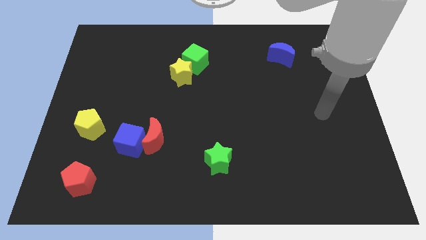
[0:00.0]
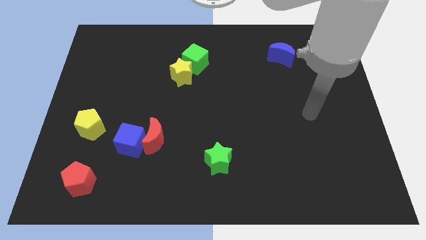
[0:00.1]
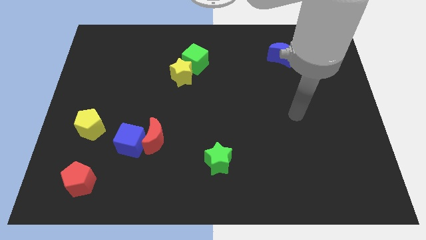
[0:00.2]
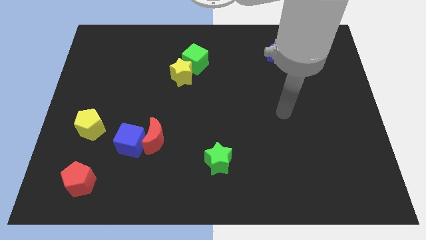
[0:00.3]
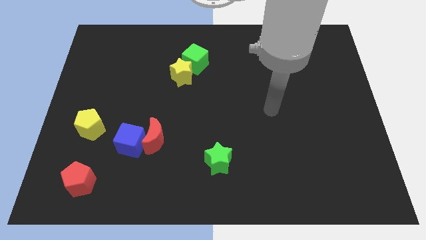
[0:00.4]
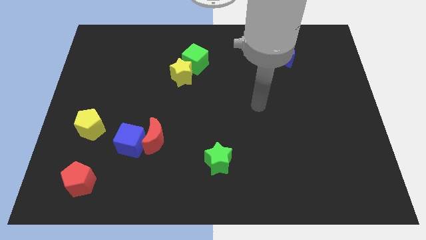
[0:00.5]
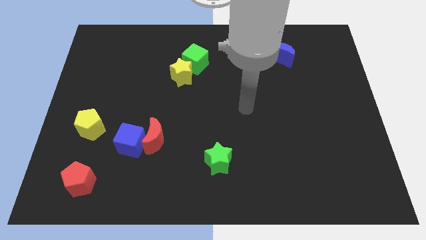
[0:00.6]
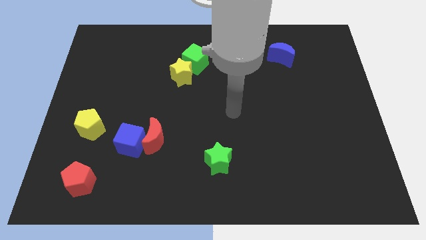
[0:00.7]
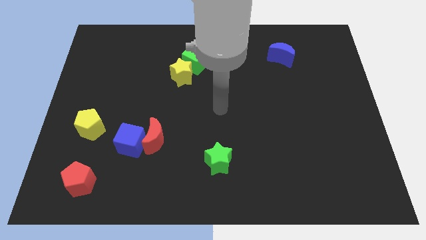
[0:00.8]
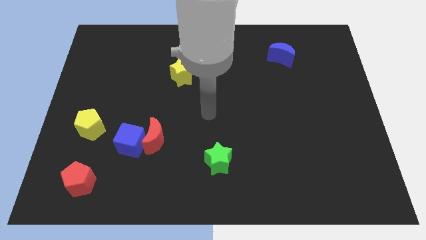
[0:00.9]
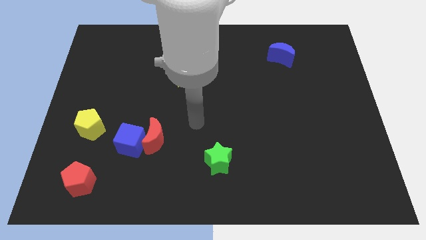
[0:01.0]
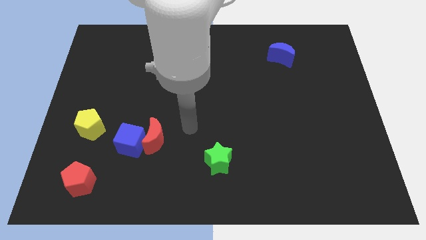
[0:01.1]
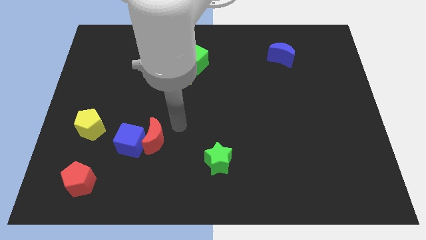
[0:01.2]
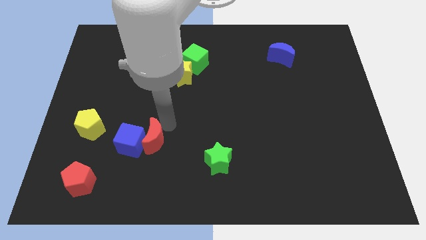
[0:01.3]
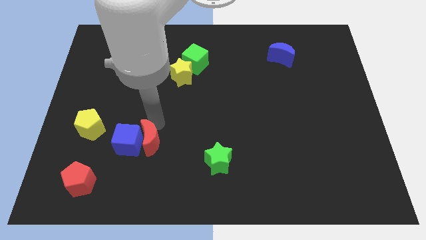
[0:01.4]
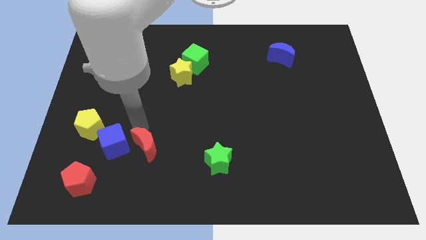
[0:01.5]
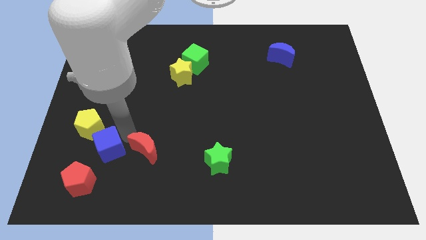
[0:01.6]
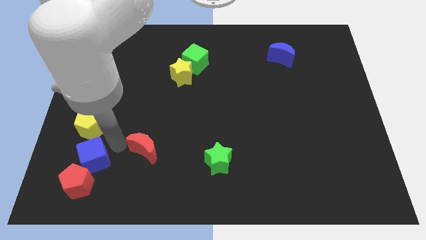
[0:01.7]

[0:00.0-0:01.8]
move the red moon away from the blue cube

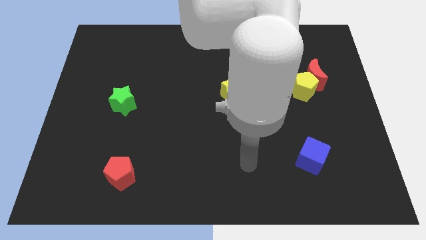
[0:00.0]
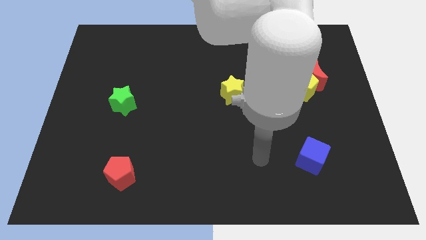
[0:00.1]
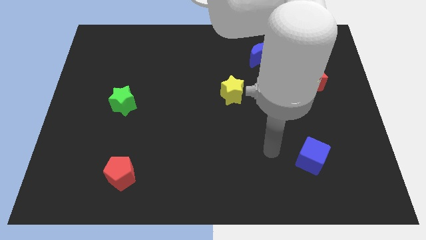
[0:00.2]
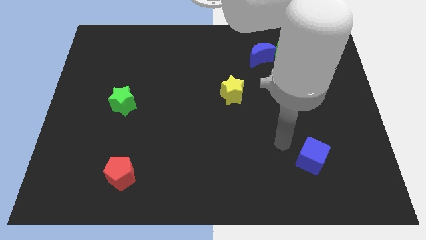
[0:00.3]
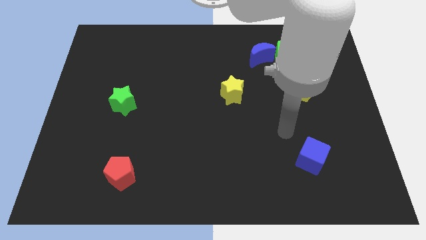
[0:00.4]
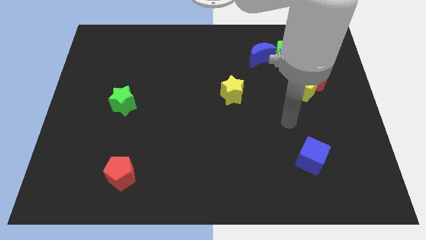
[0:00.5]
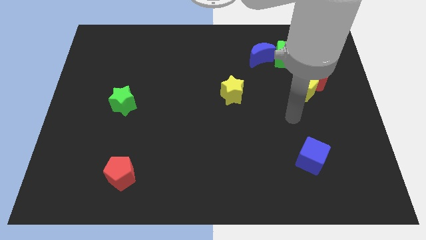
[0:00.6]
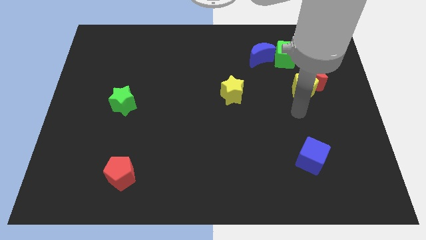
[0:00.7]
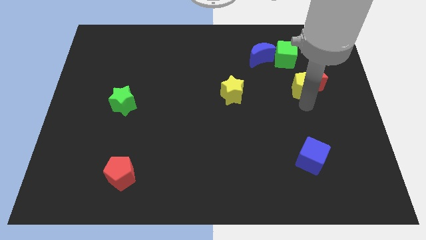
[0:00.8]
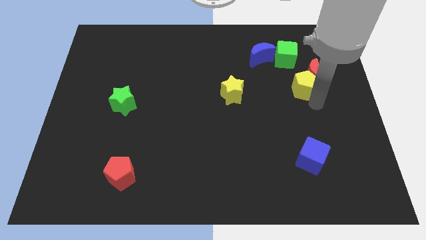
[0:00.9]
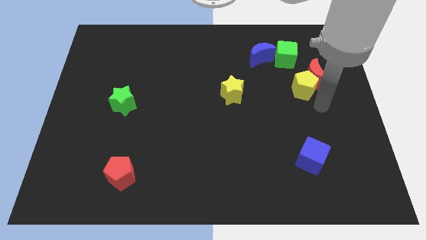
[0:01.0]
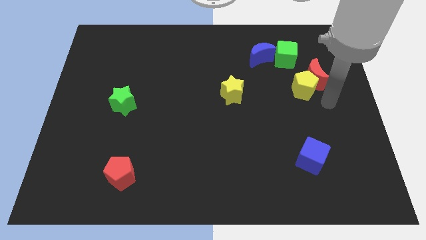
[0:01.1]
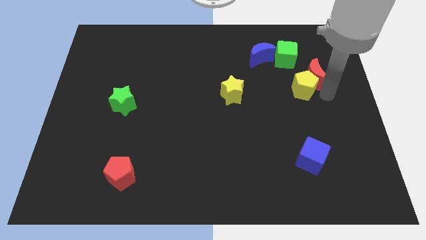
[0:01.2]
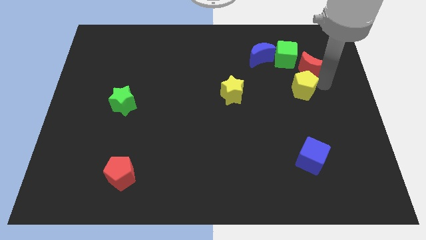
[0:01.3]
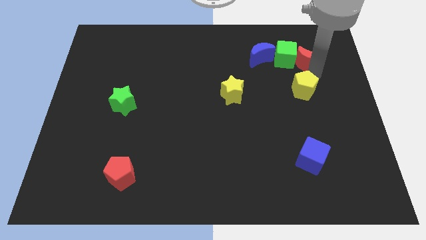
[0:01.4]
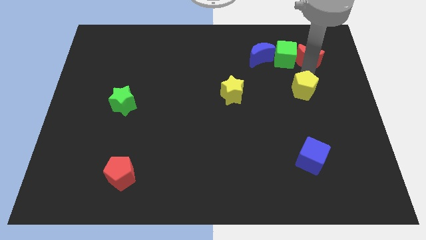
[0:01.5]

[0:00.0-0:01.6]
separate the yellow pentagon from the red moon

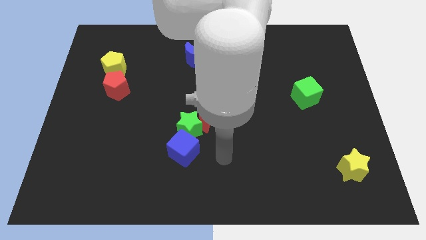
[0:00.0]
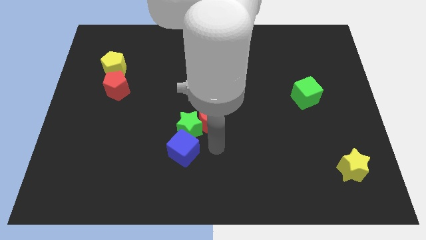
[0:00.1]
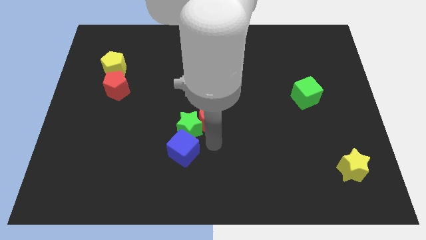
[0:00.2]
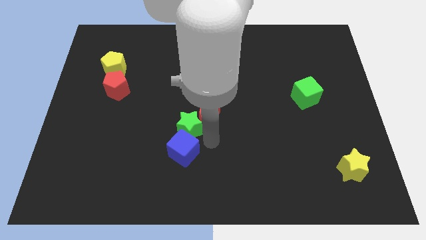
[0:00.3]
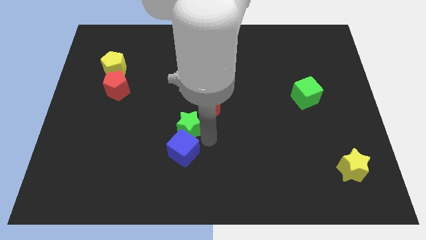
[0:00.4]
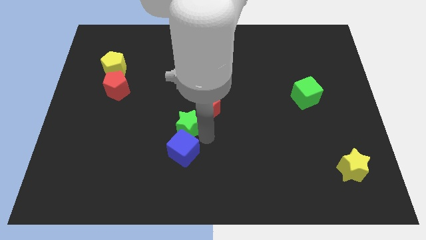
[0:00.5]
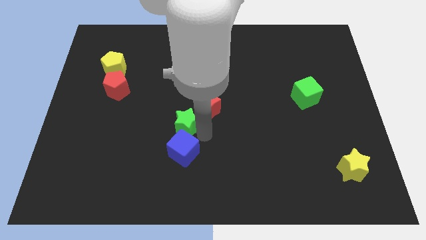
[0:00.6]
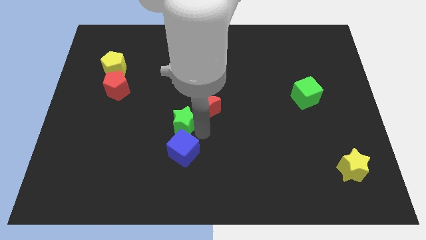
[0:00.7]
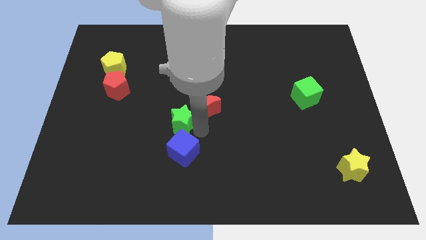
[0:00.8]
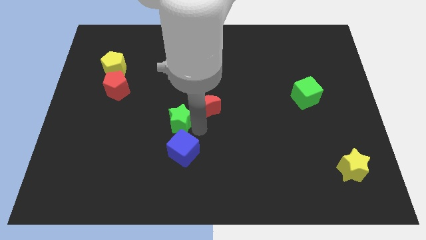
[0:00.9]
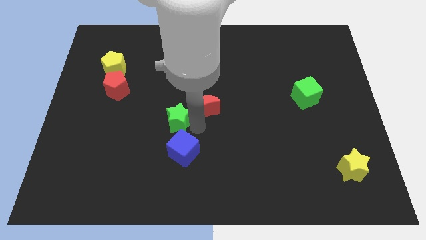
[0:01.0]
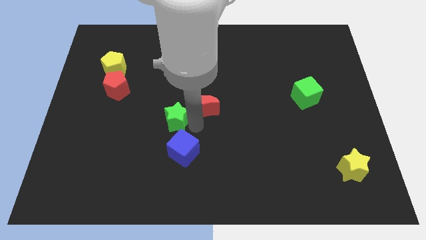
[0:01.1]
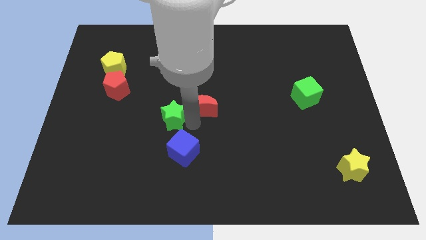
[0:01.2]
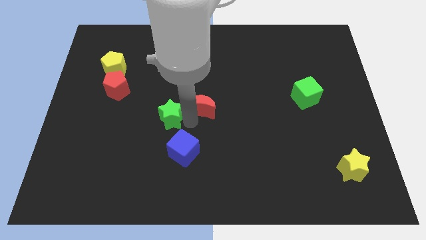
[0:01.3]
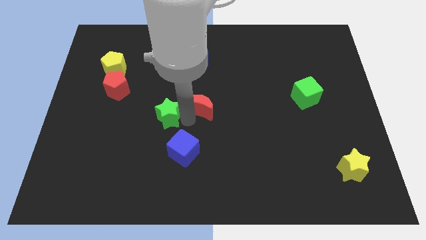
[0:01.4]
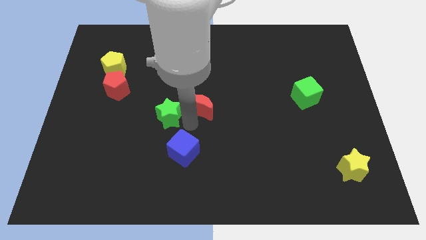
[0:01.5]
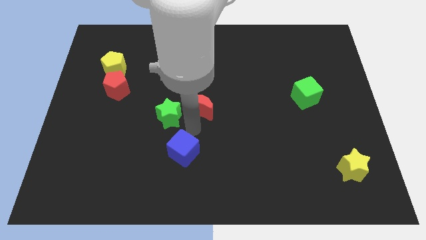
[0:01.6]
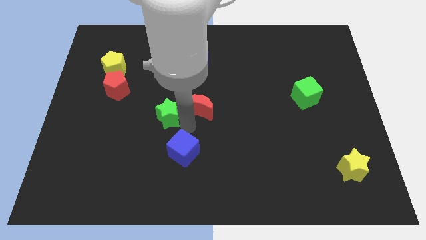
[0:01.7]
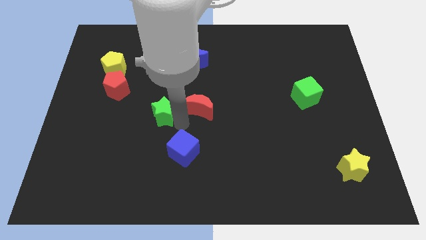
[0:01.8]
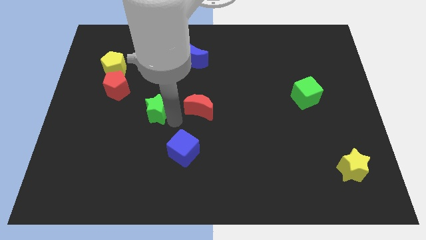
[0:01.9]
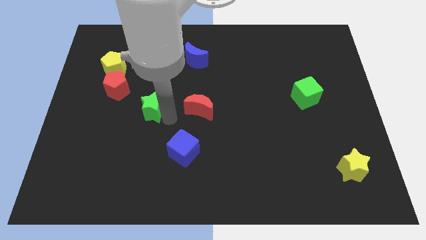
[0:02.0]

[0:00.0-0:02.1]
separate the green star from the red moon and blue cube

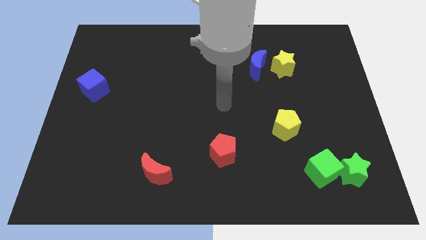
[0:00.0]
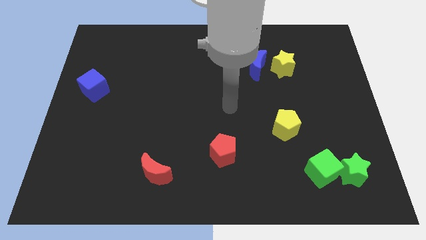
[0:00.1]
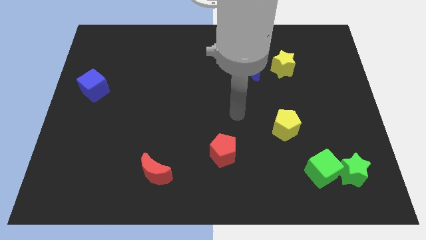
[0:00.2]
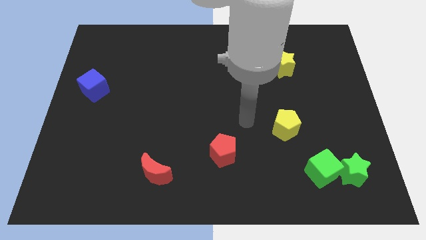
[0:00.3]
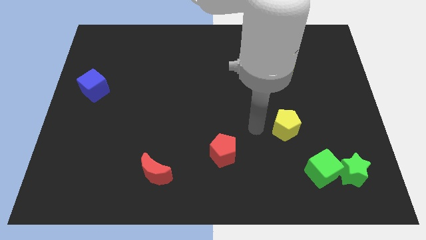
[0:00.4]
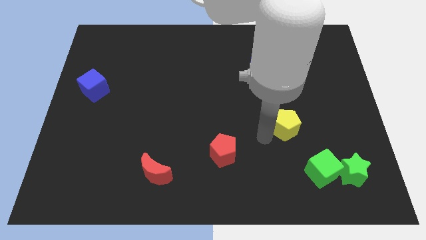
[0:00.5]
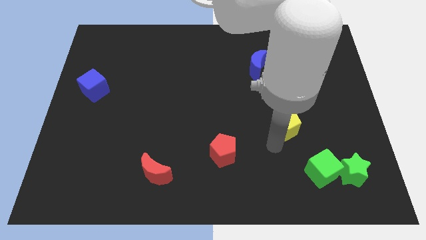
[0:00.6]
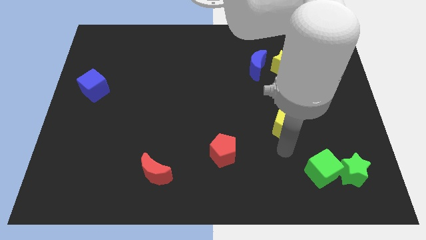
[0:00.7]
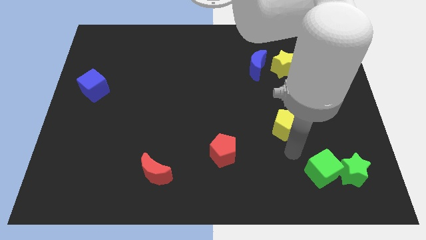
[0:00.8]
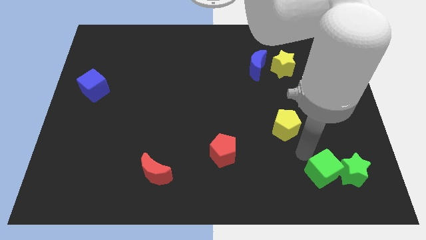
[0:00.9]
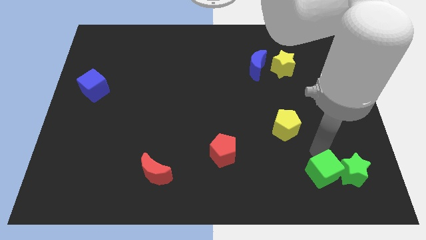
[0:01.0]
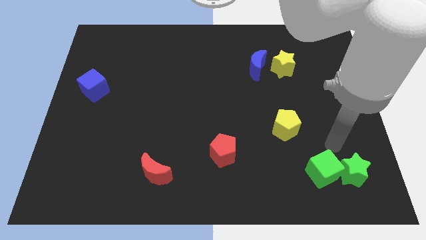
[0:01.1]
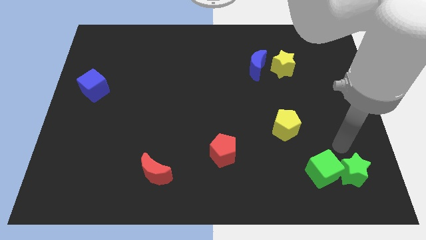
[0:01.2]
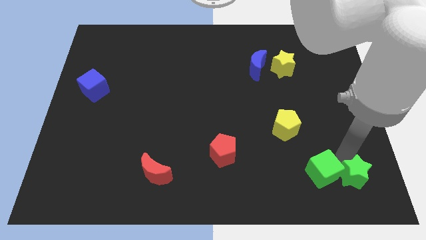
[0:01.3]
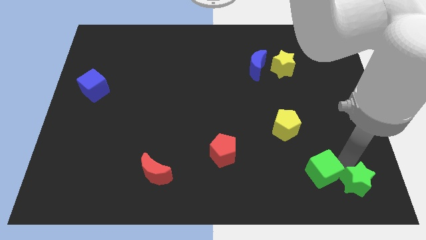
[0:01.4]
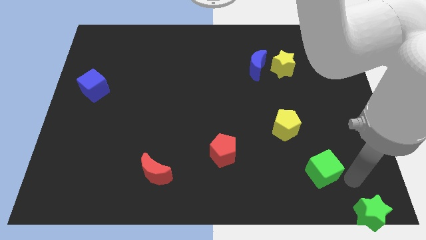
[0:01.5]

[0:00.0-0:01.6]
pull the green cube apart from the green star

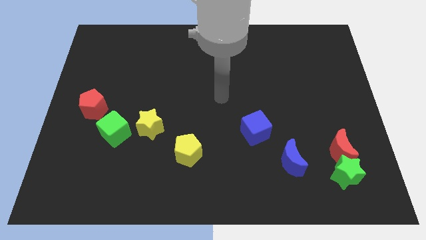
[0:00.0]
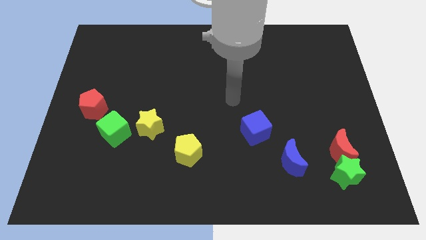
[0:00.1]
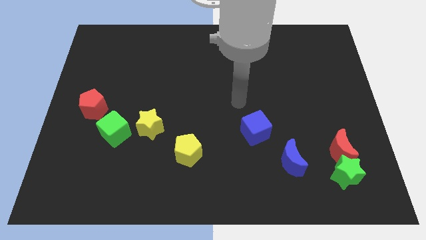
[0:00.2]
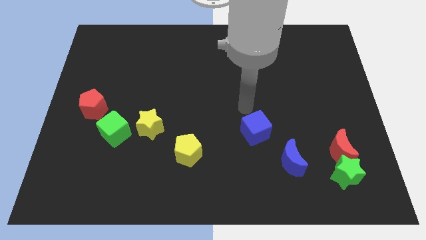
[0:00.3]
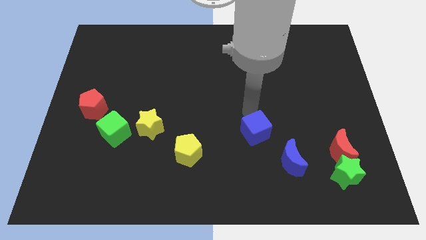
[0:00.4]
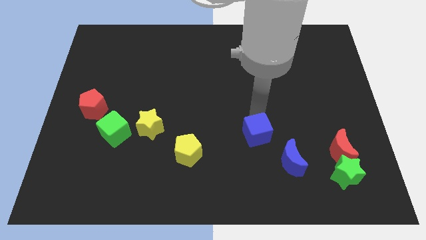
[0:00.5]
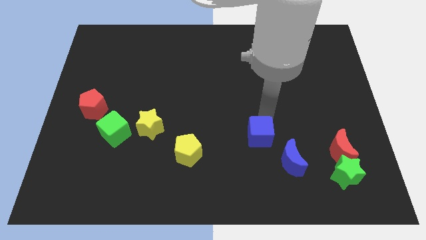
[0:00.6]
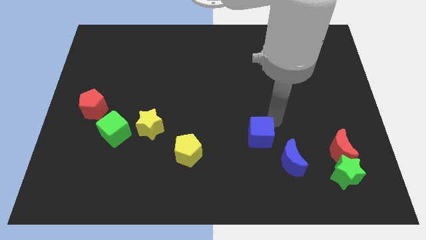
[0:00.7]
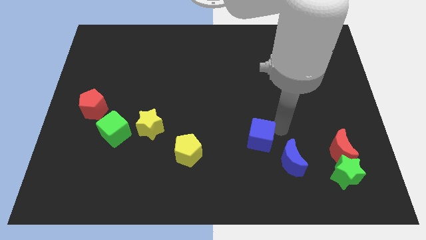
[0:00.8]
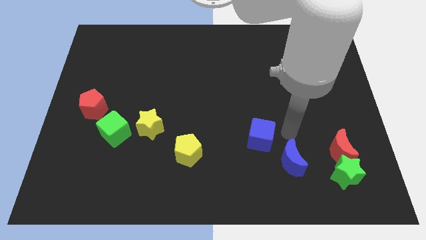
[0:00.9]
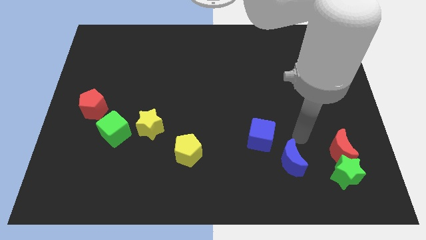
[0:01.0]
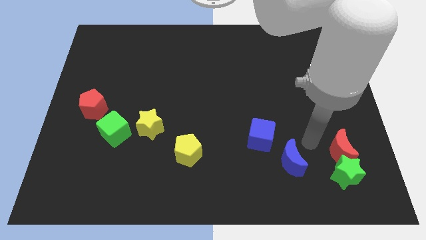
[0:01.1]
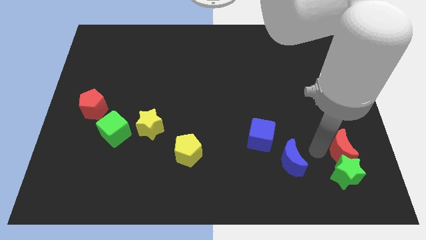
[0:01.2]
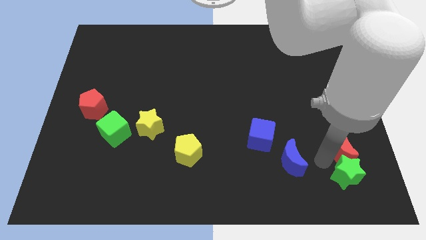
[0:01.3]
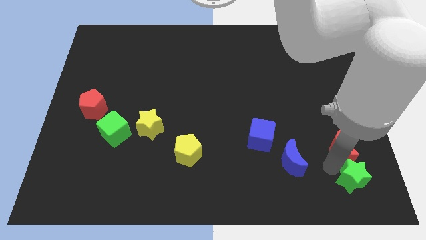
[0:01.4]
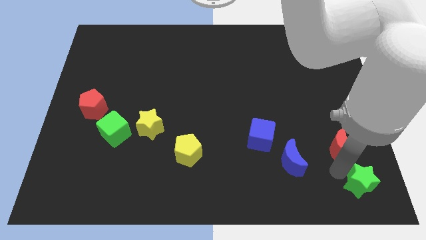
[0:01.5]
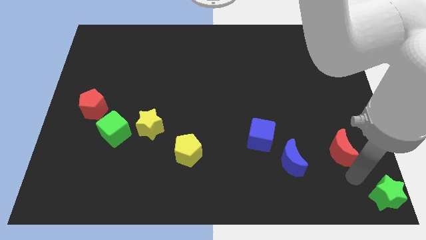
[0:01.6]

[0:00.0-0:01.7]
pull the red moon apart from the green star

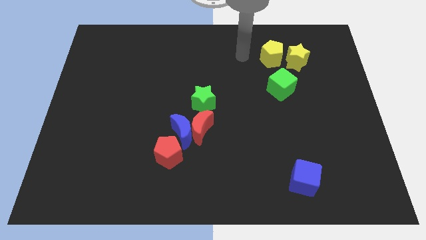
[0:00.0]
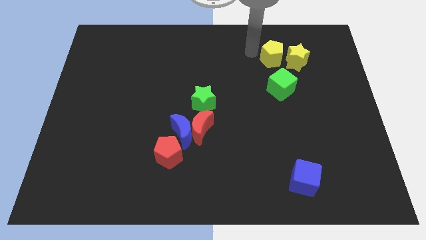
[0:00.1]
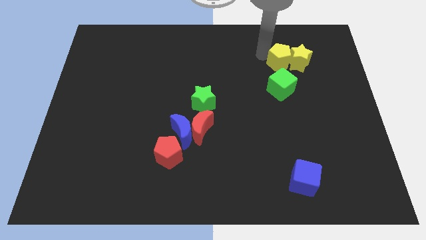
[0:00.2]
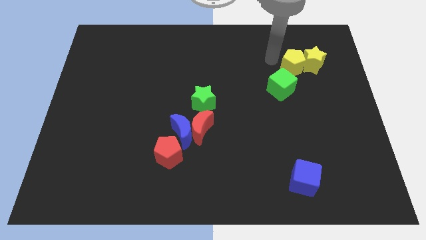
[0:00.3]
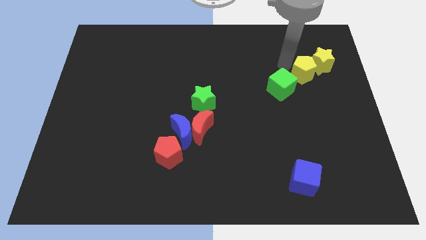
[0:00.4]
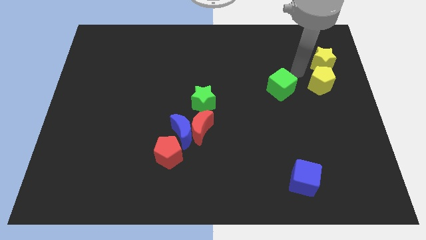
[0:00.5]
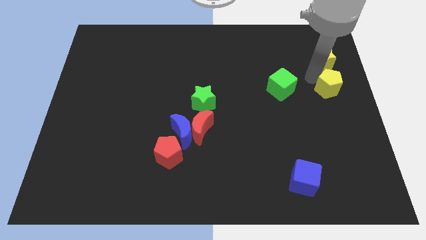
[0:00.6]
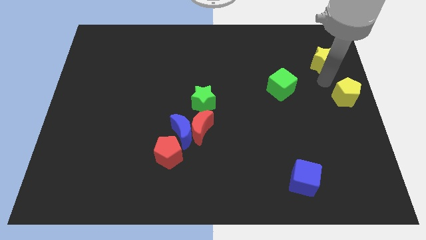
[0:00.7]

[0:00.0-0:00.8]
move the yellow star away from the yellow pentagon
